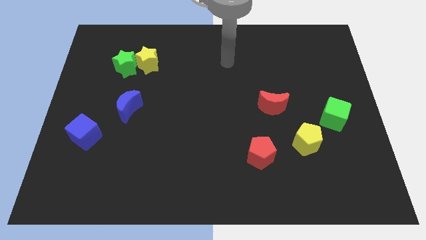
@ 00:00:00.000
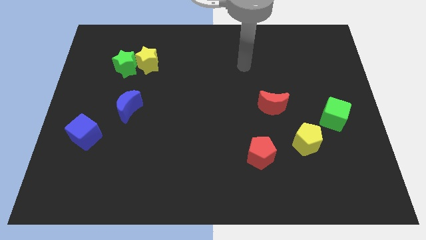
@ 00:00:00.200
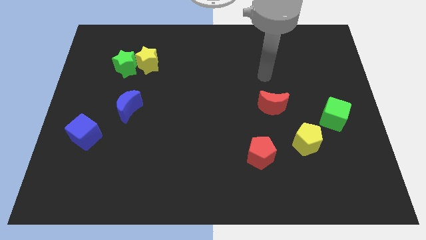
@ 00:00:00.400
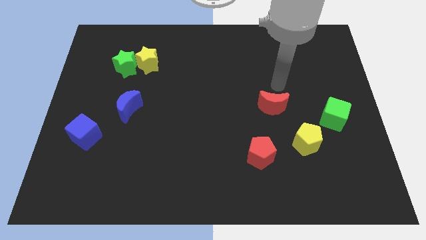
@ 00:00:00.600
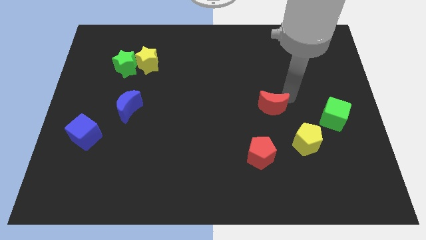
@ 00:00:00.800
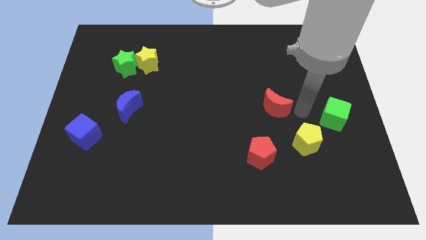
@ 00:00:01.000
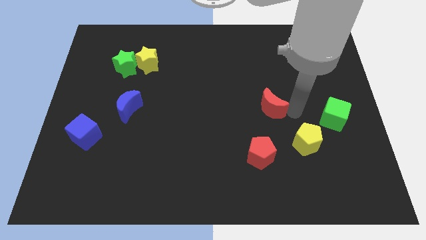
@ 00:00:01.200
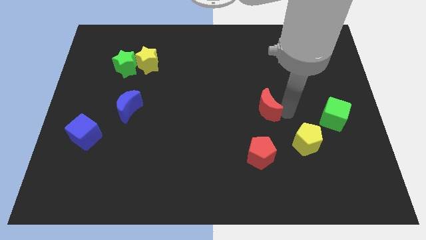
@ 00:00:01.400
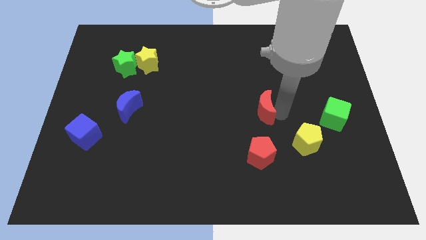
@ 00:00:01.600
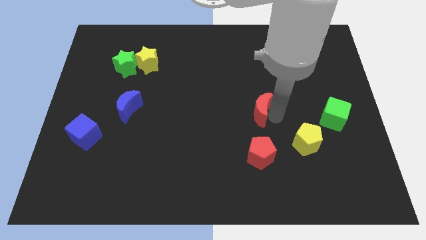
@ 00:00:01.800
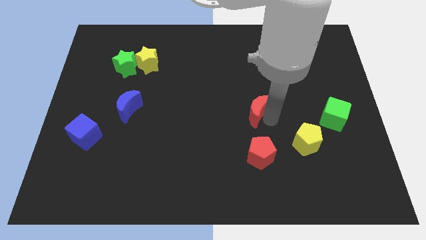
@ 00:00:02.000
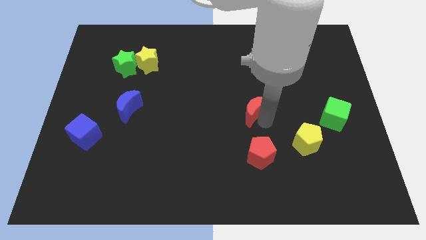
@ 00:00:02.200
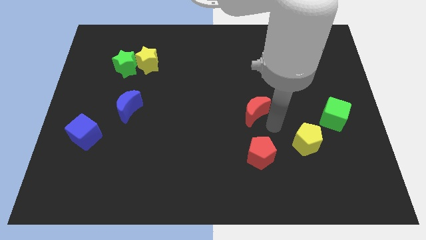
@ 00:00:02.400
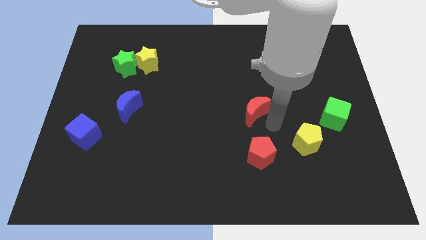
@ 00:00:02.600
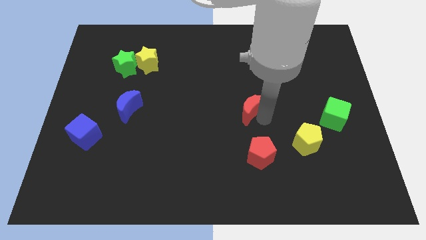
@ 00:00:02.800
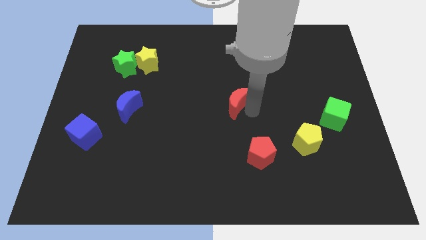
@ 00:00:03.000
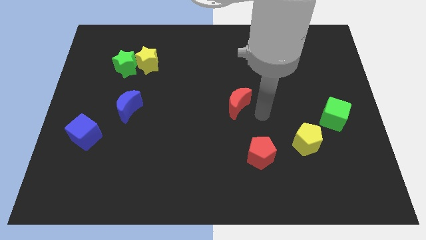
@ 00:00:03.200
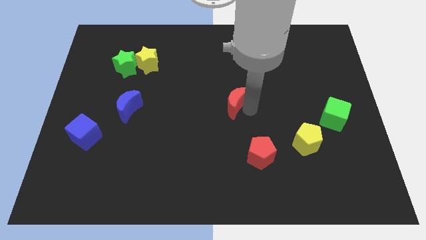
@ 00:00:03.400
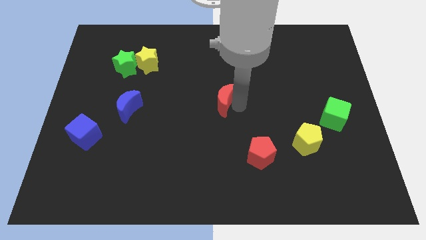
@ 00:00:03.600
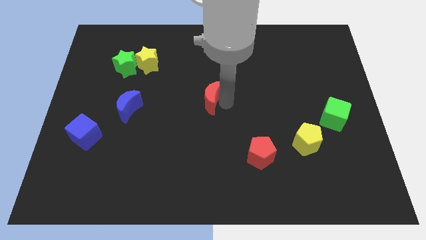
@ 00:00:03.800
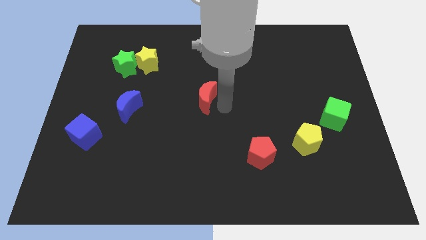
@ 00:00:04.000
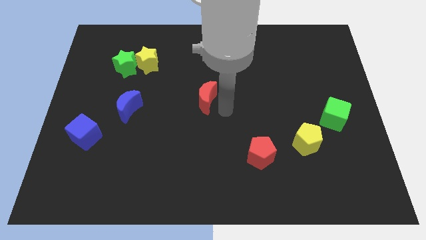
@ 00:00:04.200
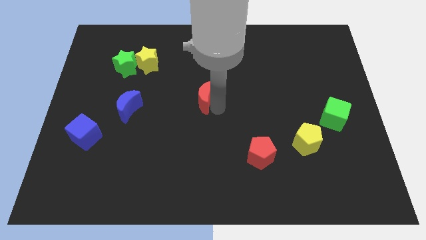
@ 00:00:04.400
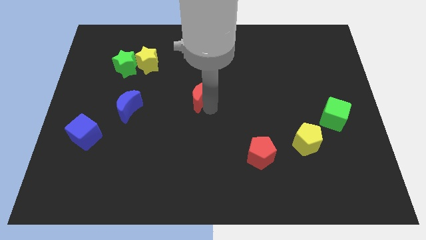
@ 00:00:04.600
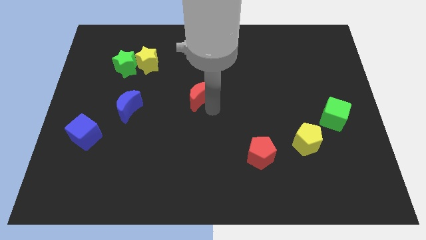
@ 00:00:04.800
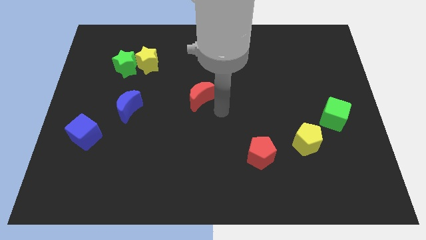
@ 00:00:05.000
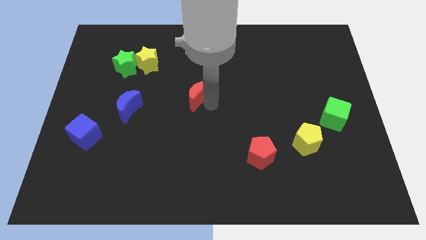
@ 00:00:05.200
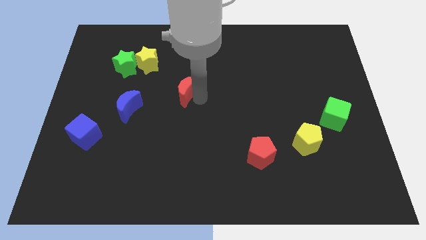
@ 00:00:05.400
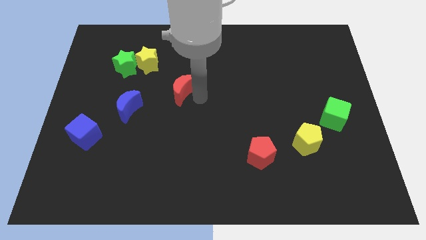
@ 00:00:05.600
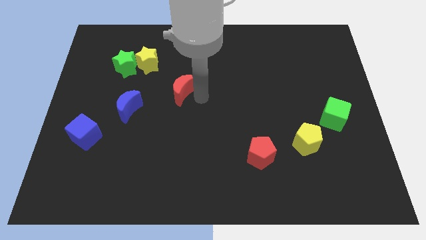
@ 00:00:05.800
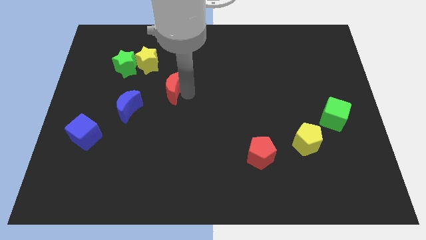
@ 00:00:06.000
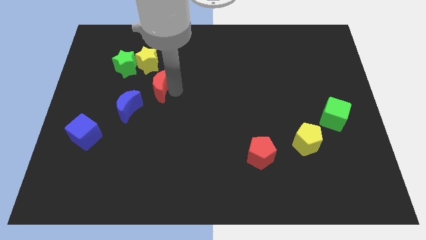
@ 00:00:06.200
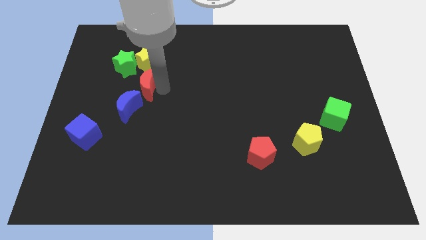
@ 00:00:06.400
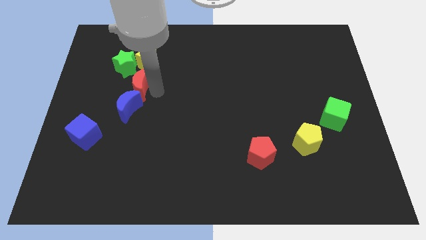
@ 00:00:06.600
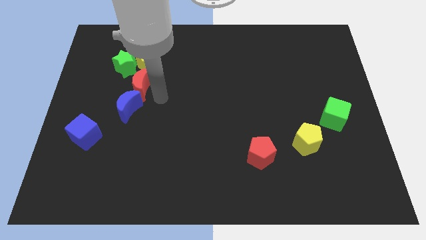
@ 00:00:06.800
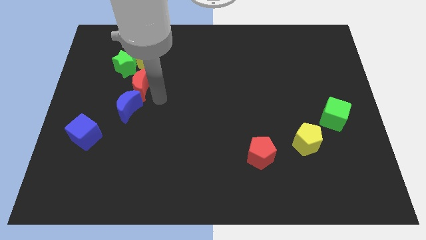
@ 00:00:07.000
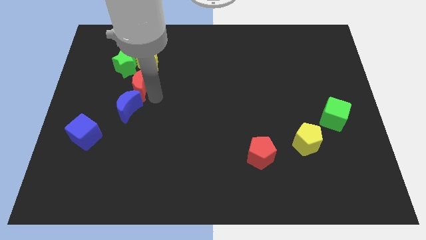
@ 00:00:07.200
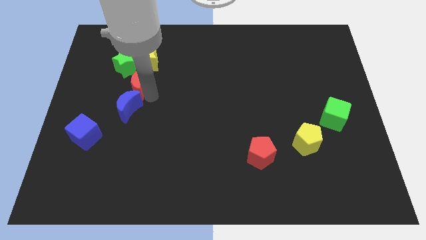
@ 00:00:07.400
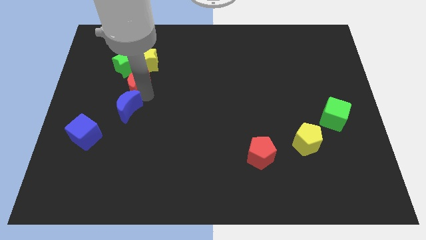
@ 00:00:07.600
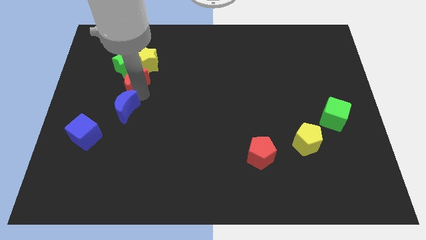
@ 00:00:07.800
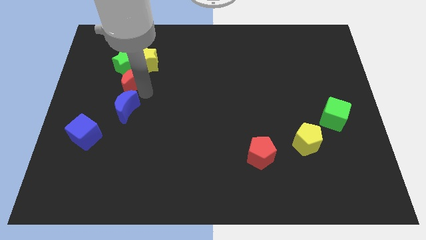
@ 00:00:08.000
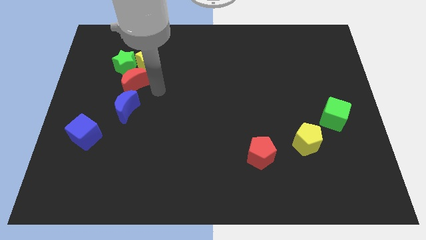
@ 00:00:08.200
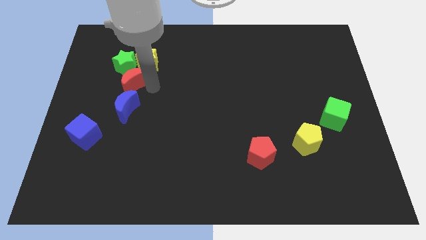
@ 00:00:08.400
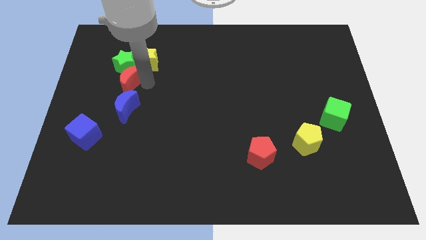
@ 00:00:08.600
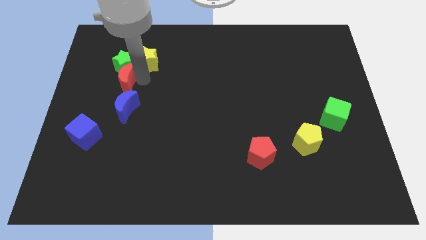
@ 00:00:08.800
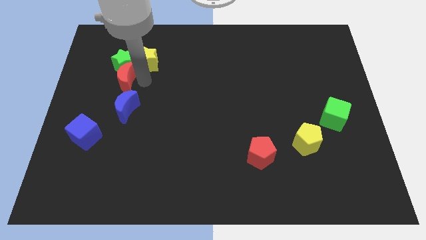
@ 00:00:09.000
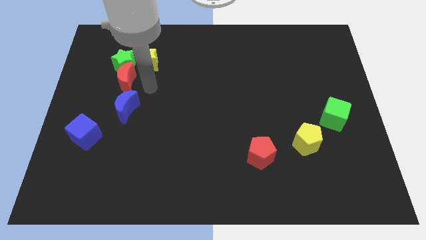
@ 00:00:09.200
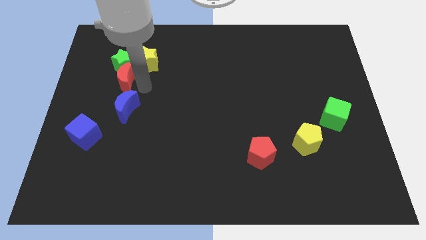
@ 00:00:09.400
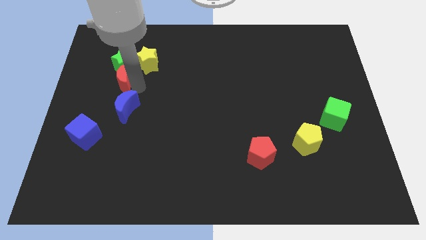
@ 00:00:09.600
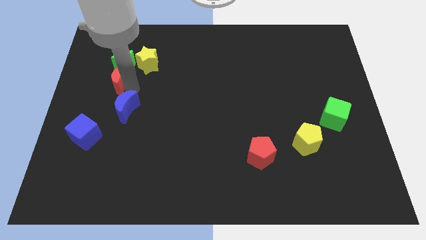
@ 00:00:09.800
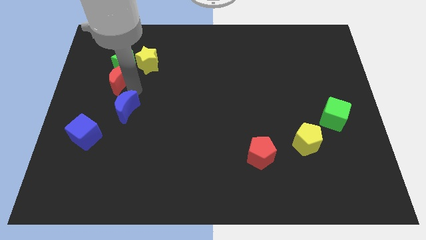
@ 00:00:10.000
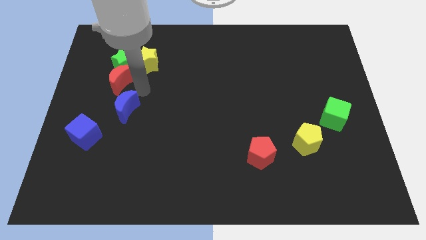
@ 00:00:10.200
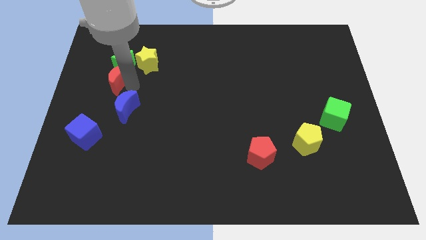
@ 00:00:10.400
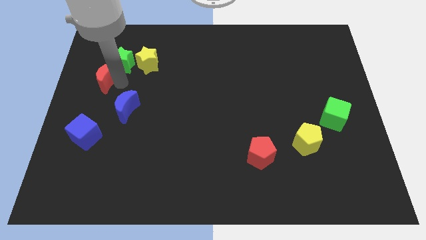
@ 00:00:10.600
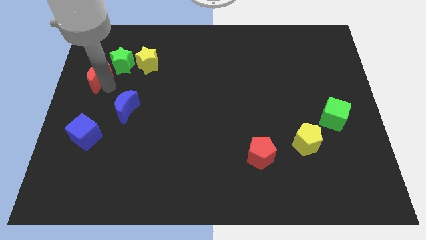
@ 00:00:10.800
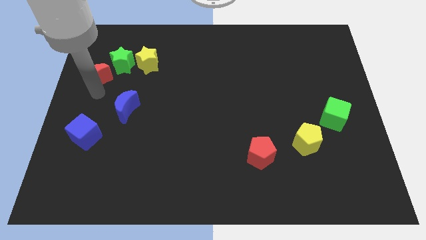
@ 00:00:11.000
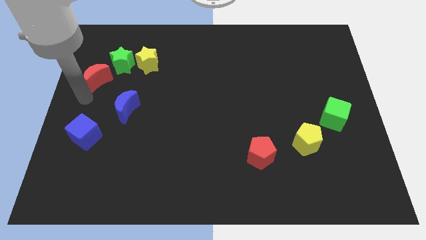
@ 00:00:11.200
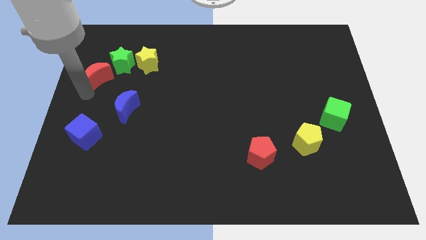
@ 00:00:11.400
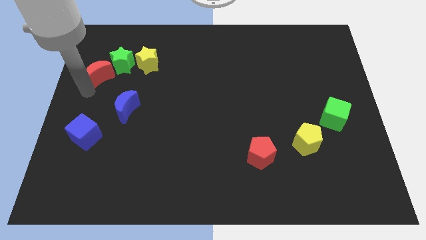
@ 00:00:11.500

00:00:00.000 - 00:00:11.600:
slide the red moon left of the yellow star

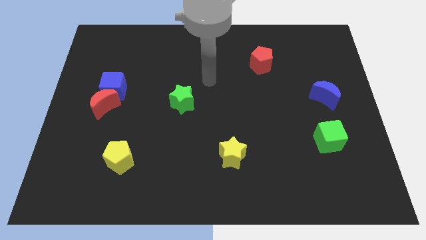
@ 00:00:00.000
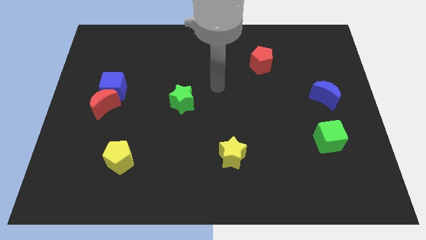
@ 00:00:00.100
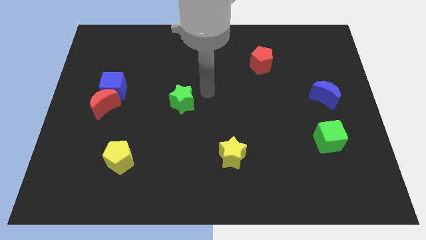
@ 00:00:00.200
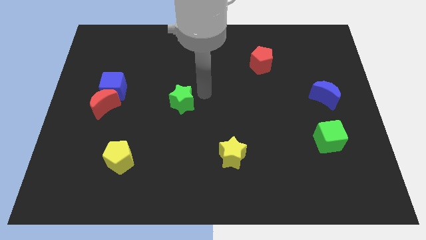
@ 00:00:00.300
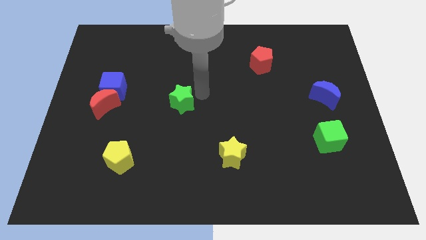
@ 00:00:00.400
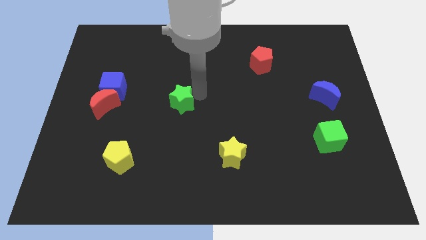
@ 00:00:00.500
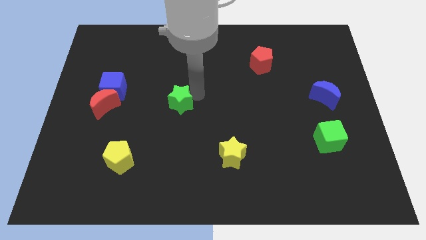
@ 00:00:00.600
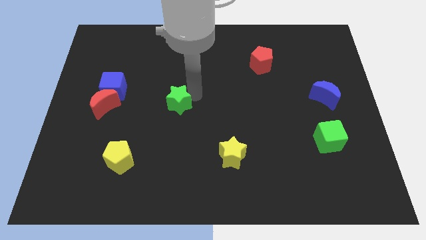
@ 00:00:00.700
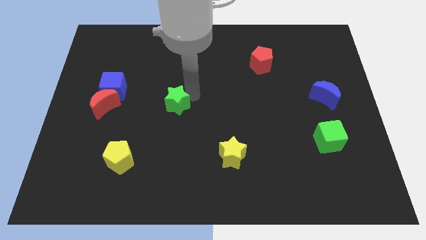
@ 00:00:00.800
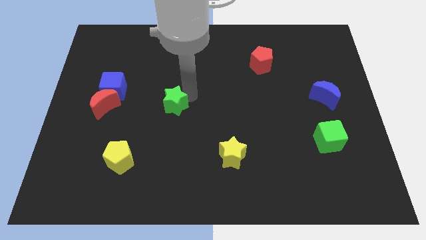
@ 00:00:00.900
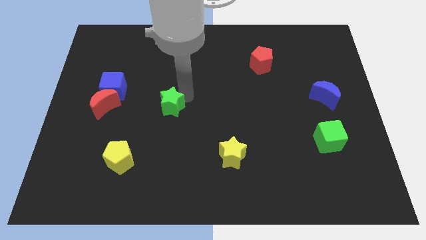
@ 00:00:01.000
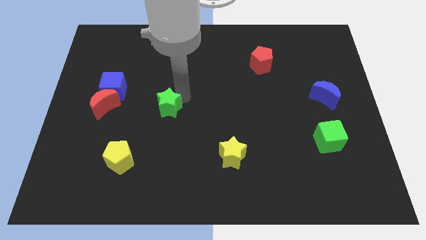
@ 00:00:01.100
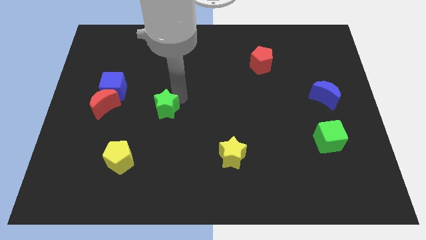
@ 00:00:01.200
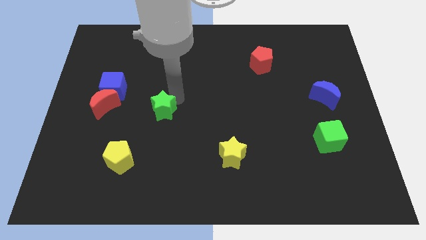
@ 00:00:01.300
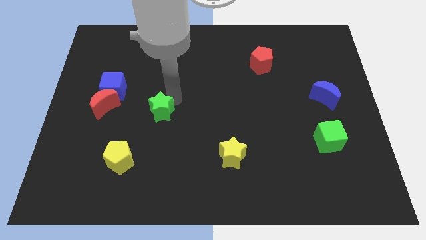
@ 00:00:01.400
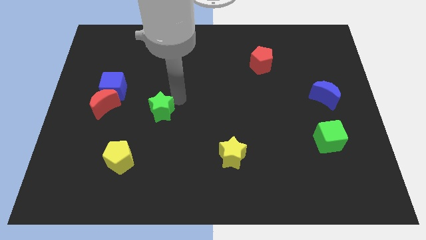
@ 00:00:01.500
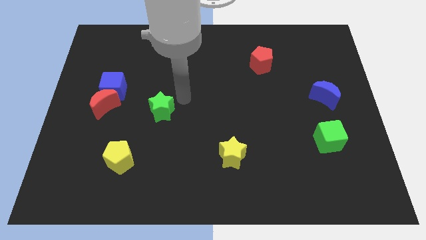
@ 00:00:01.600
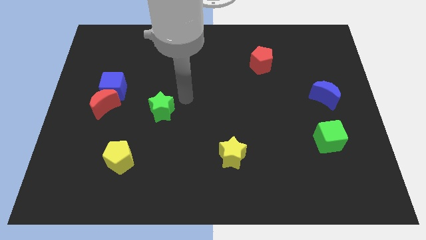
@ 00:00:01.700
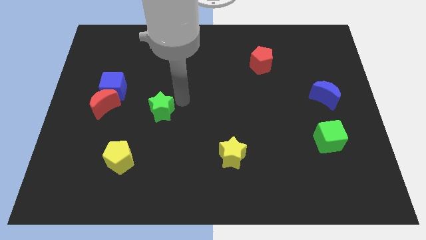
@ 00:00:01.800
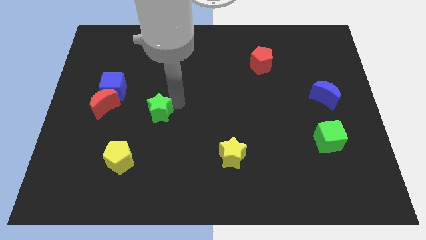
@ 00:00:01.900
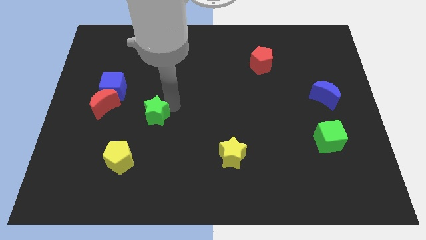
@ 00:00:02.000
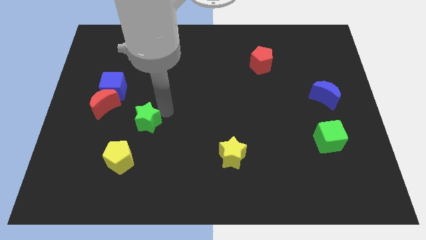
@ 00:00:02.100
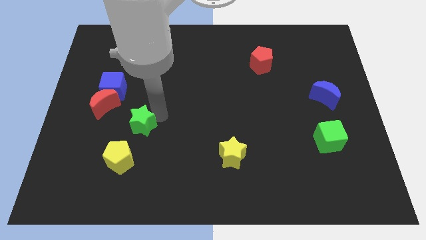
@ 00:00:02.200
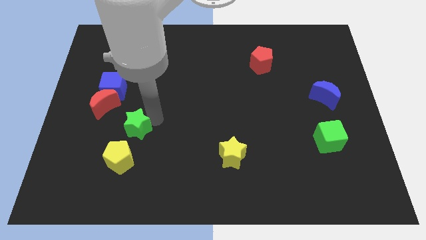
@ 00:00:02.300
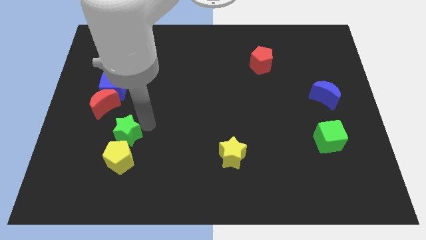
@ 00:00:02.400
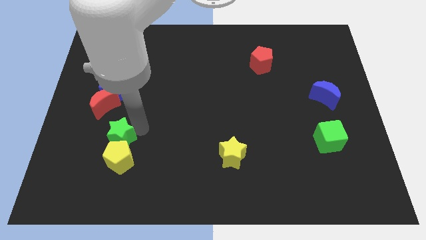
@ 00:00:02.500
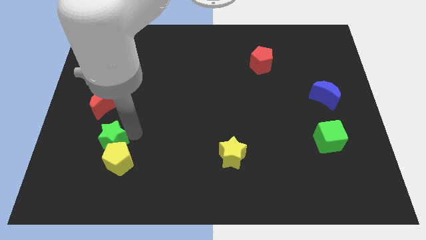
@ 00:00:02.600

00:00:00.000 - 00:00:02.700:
put the green star to the bottom side of the red moon
